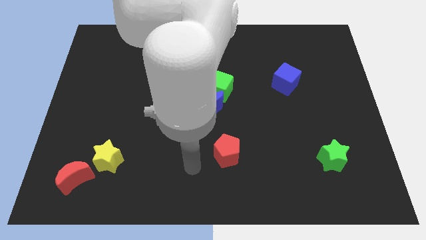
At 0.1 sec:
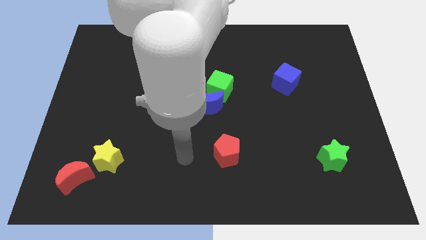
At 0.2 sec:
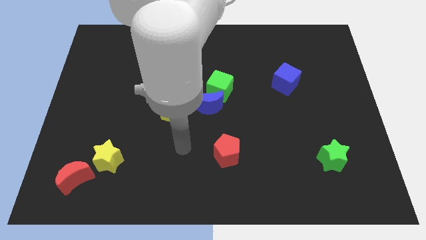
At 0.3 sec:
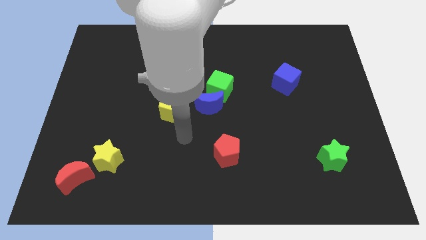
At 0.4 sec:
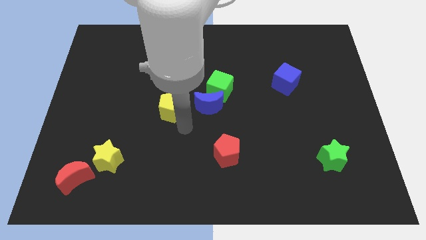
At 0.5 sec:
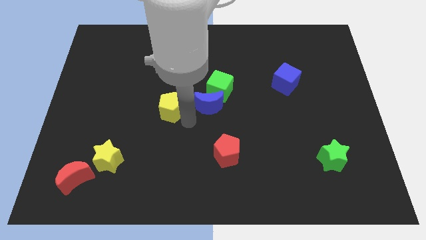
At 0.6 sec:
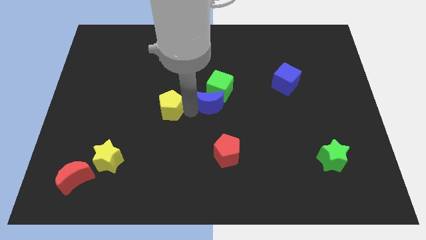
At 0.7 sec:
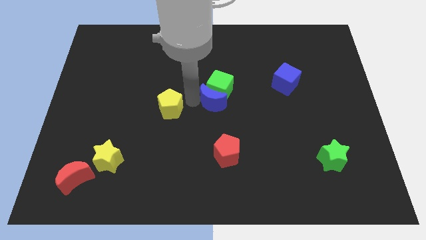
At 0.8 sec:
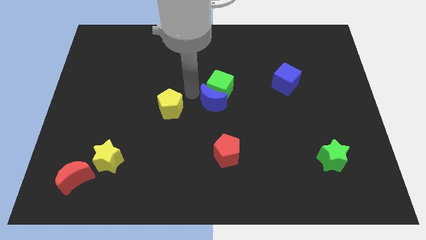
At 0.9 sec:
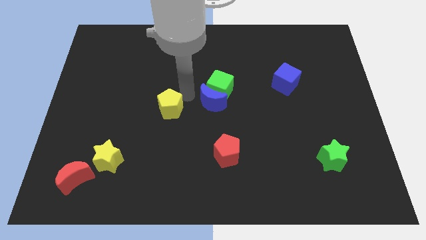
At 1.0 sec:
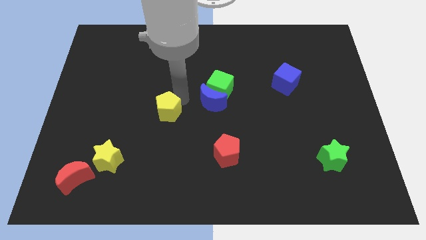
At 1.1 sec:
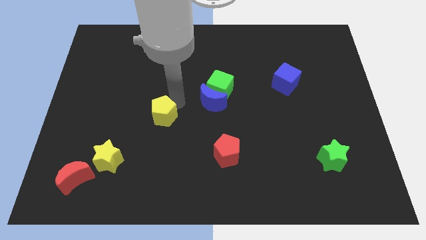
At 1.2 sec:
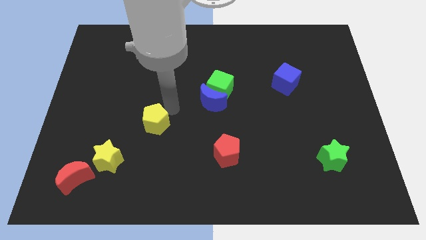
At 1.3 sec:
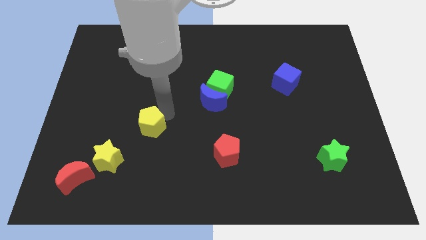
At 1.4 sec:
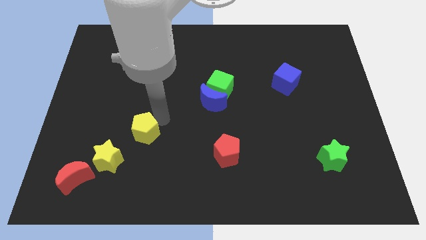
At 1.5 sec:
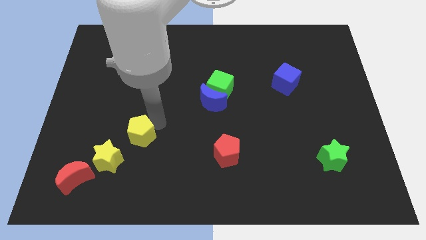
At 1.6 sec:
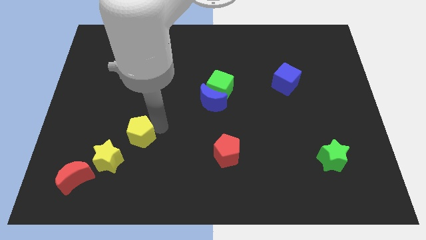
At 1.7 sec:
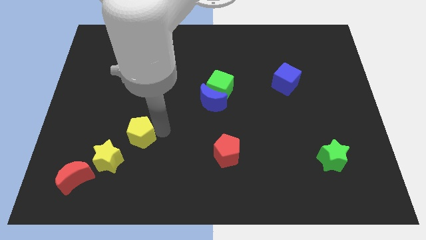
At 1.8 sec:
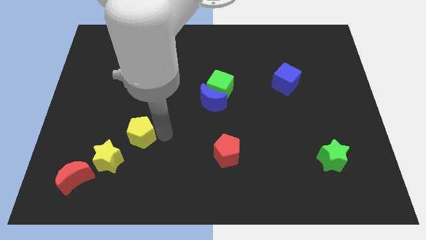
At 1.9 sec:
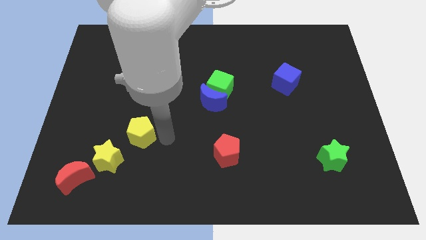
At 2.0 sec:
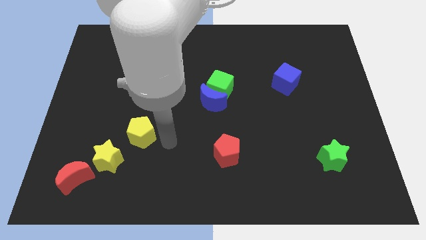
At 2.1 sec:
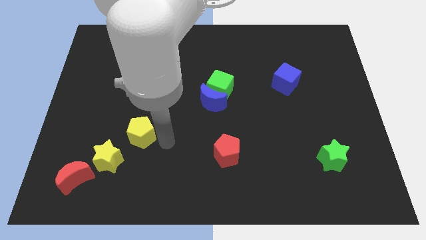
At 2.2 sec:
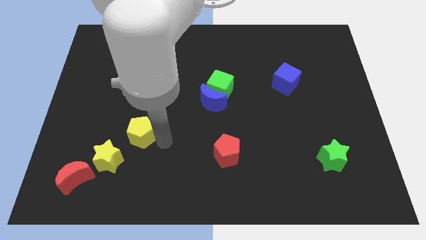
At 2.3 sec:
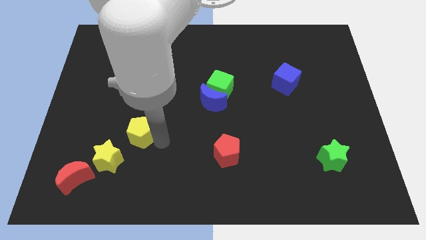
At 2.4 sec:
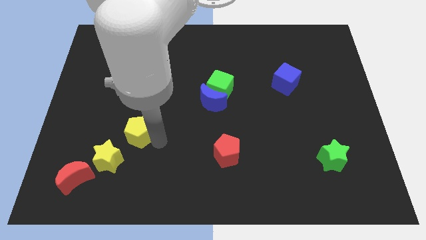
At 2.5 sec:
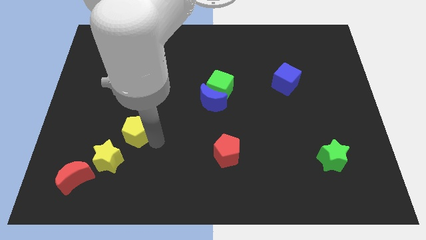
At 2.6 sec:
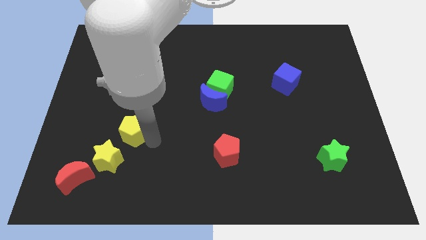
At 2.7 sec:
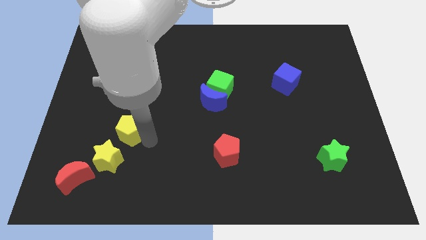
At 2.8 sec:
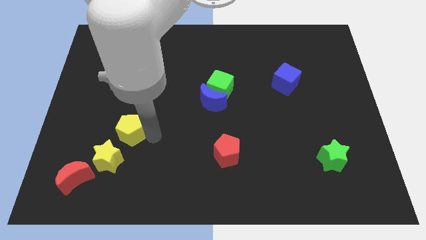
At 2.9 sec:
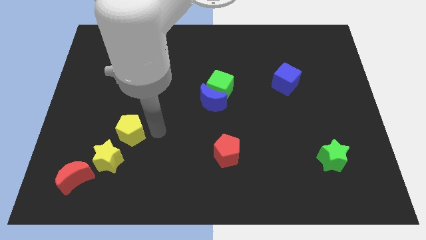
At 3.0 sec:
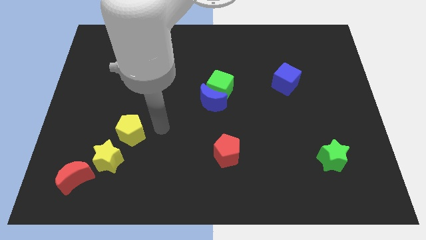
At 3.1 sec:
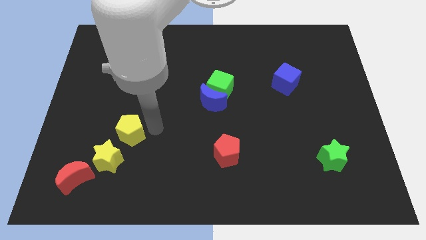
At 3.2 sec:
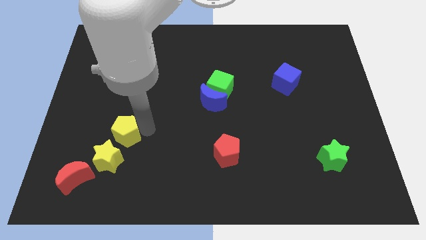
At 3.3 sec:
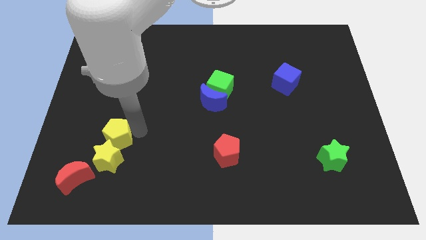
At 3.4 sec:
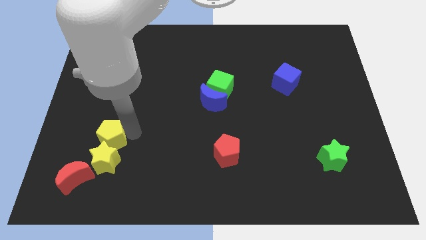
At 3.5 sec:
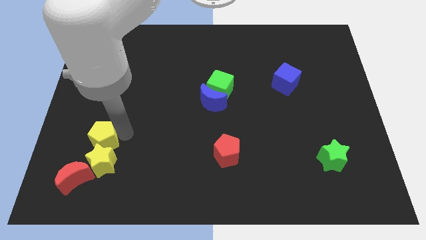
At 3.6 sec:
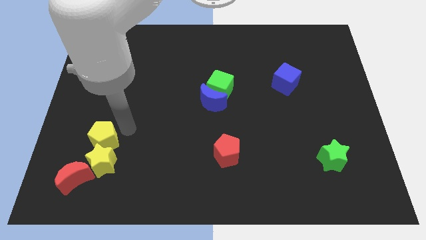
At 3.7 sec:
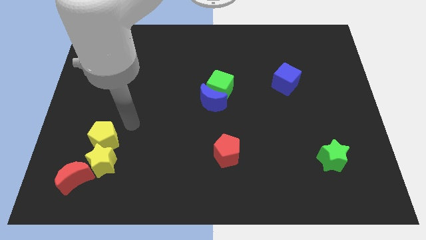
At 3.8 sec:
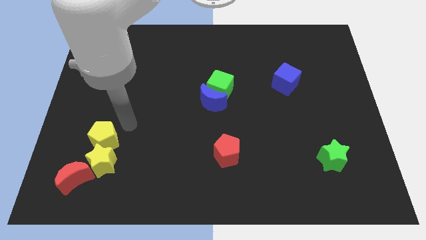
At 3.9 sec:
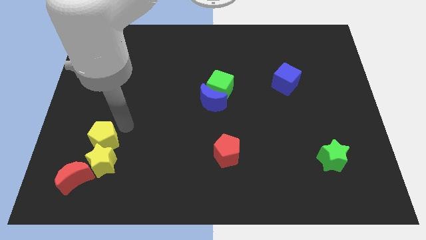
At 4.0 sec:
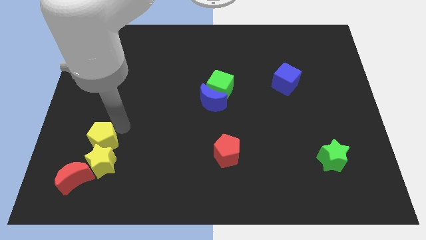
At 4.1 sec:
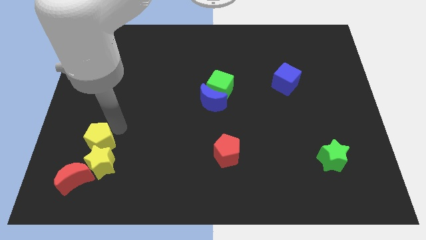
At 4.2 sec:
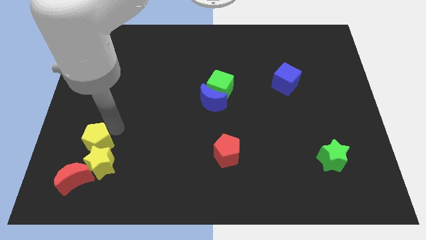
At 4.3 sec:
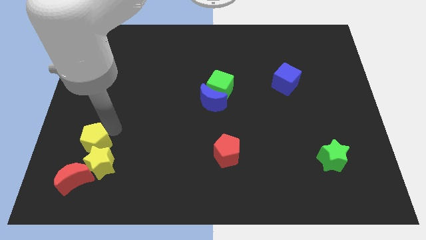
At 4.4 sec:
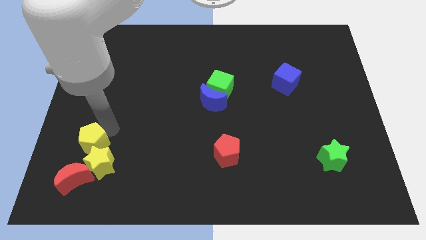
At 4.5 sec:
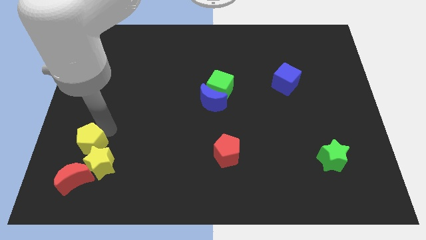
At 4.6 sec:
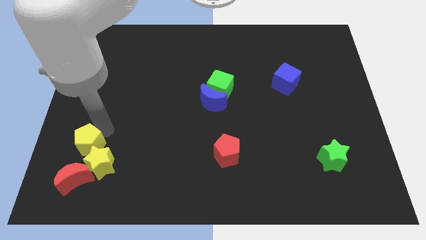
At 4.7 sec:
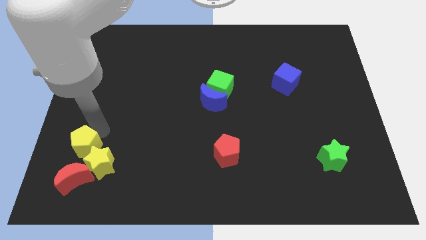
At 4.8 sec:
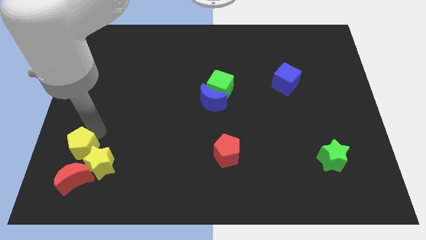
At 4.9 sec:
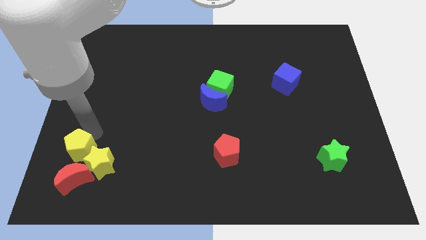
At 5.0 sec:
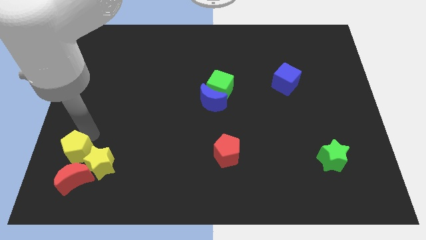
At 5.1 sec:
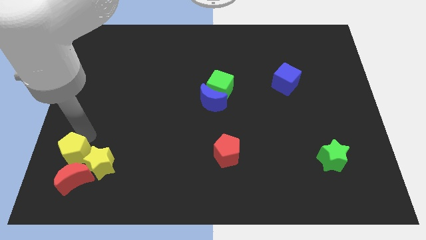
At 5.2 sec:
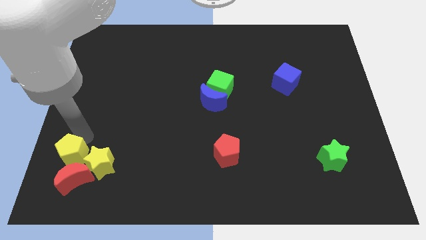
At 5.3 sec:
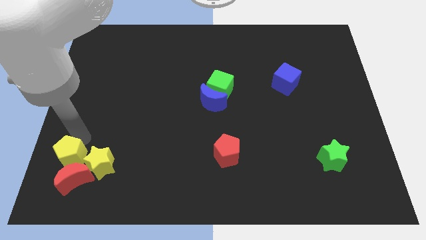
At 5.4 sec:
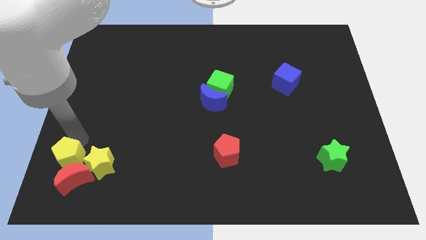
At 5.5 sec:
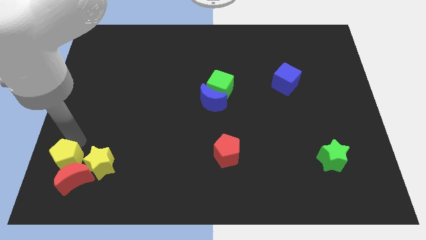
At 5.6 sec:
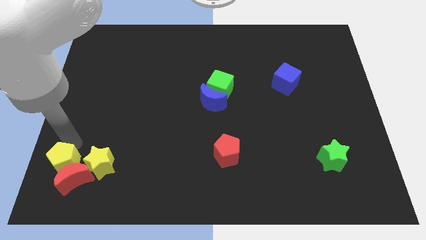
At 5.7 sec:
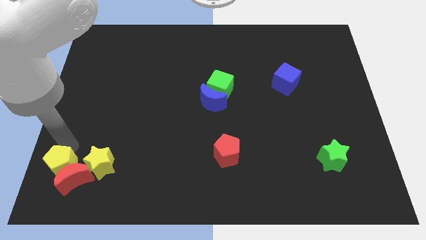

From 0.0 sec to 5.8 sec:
move the yellow pentagon to the bottom left of the board
